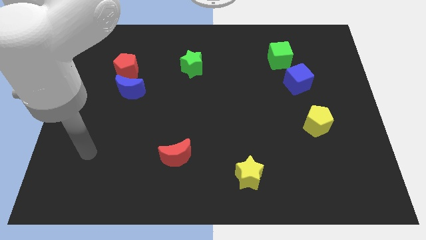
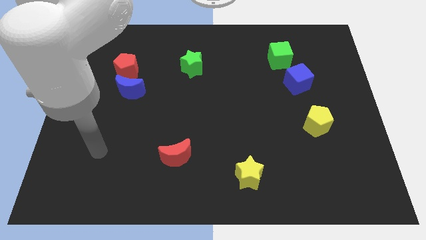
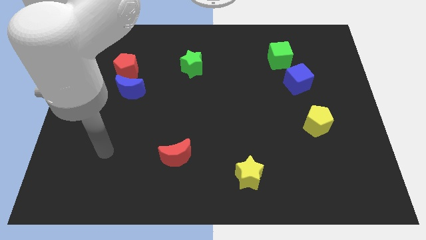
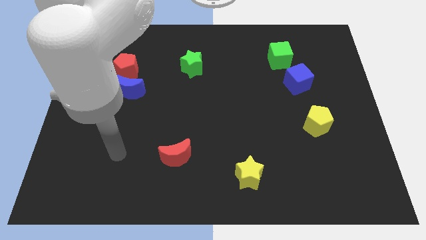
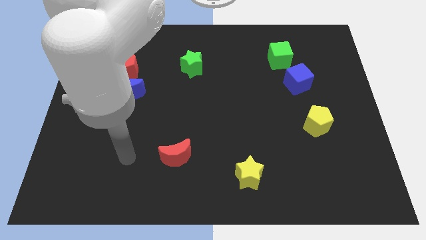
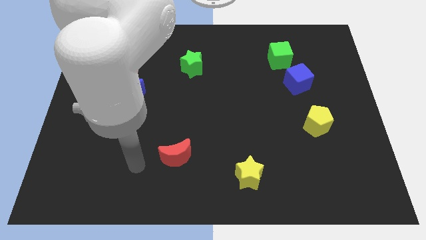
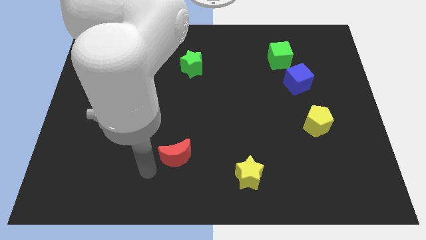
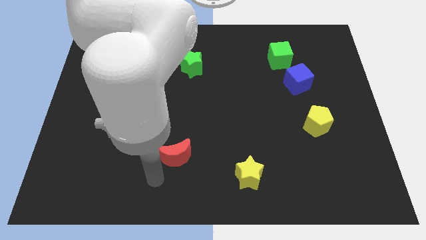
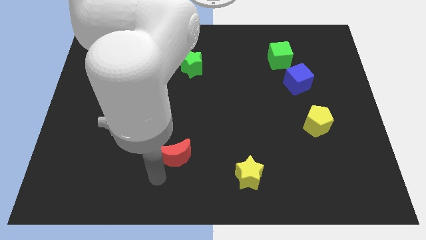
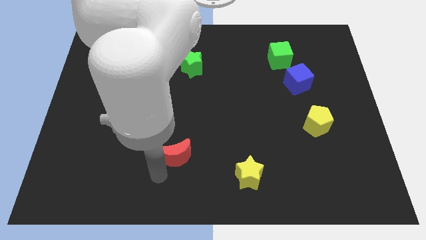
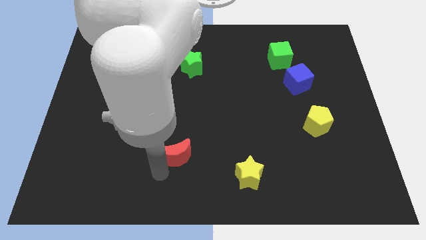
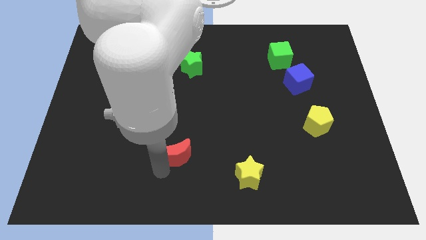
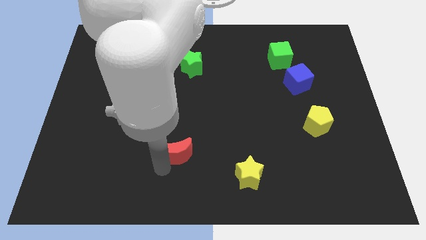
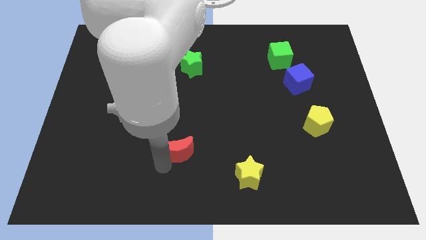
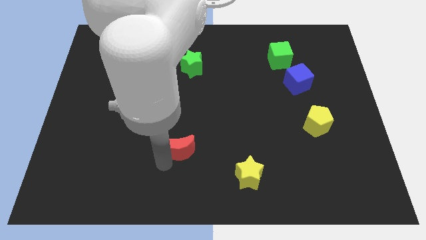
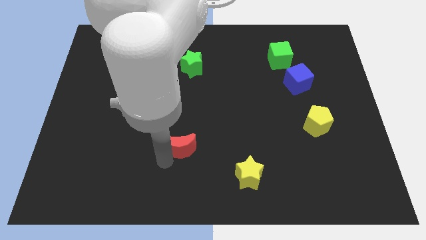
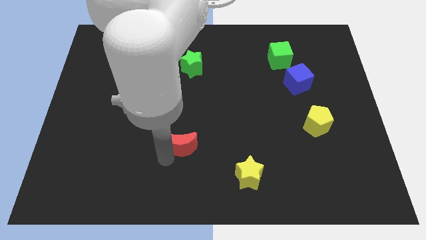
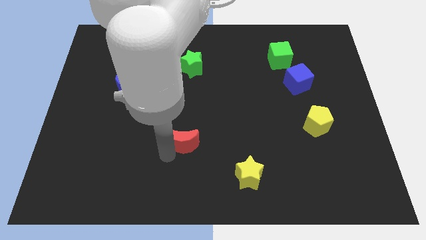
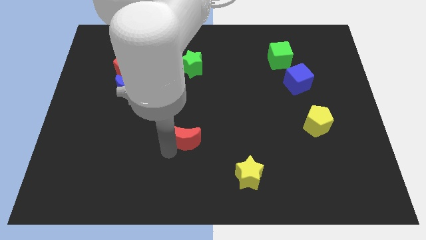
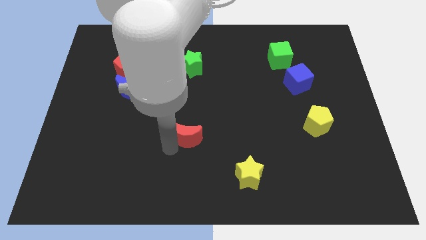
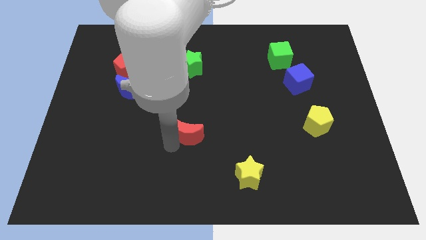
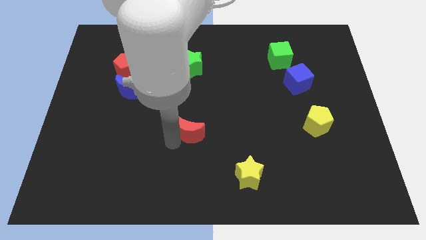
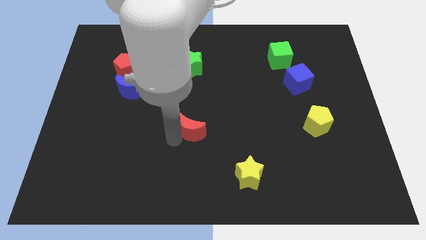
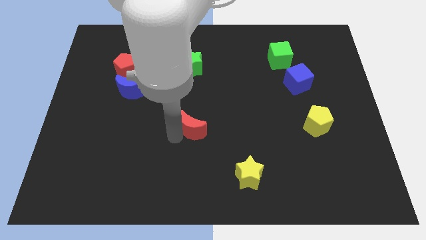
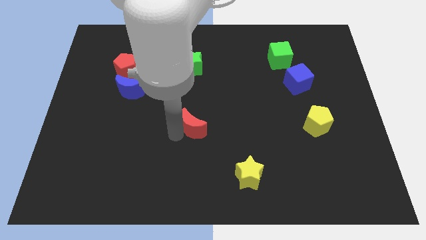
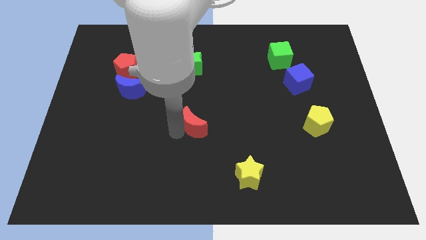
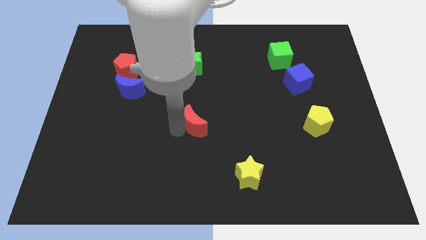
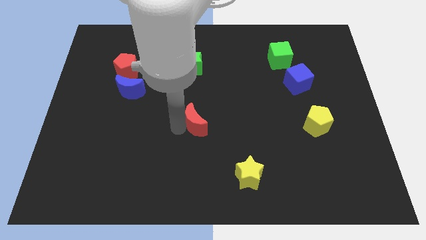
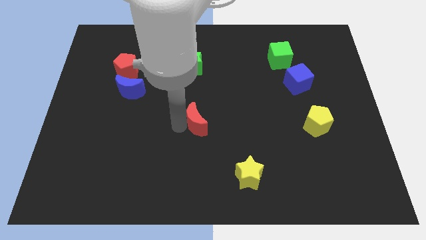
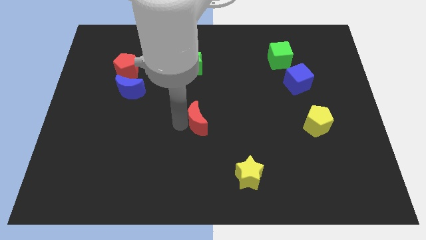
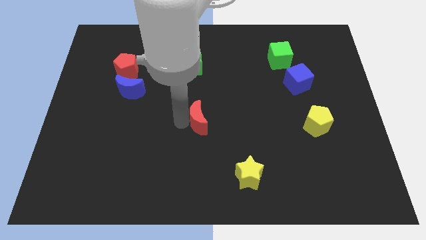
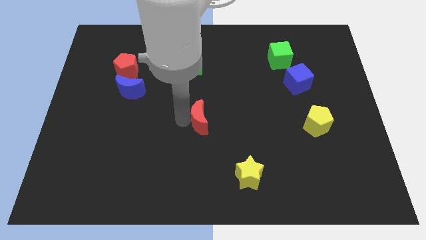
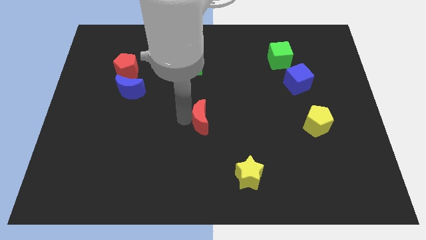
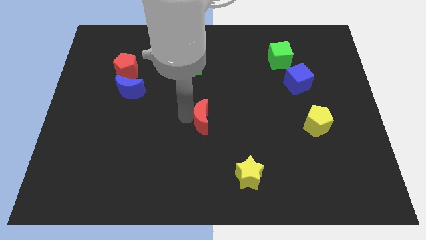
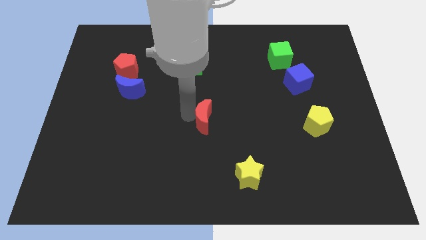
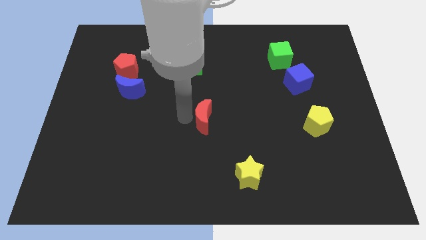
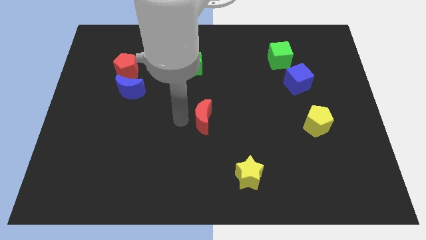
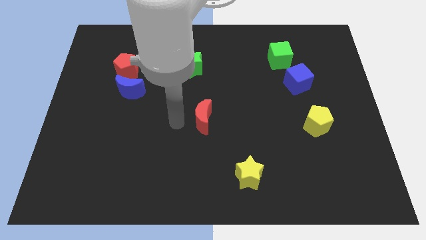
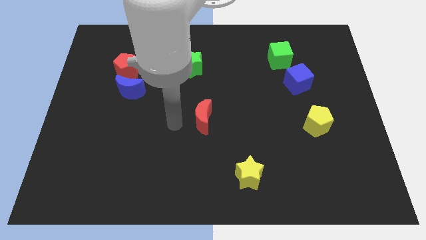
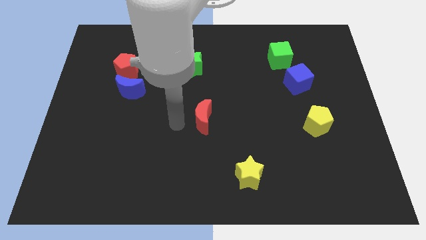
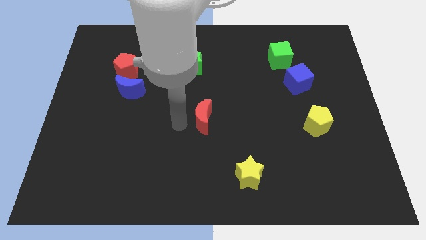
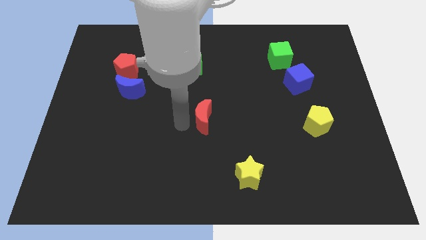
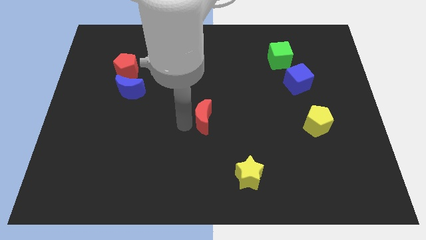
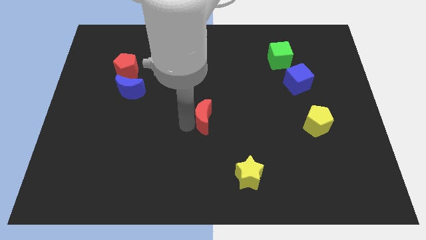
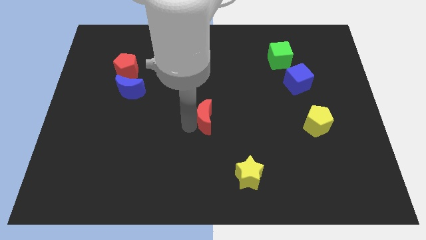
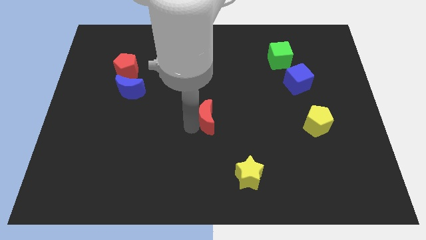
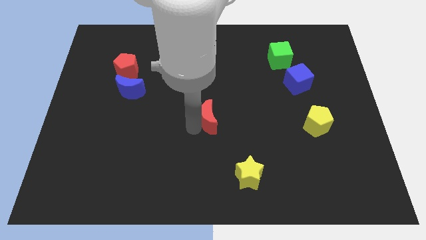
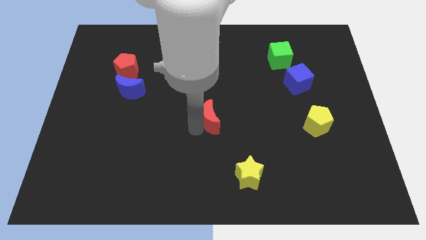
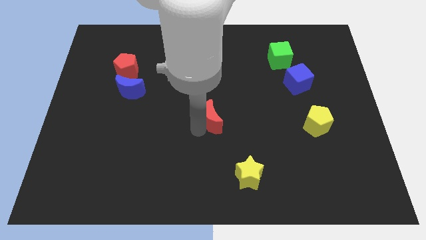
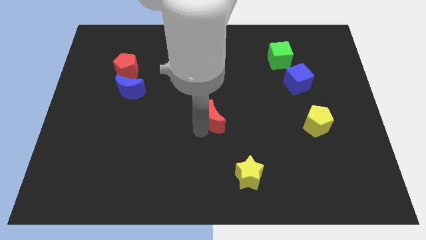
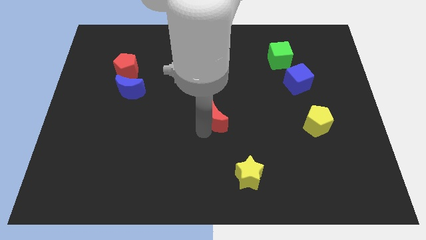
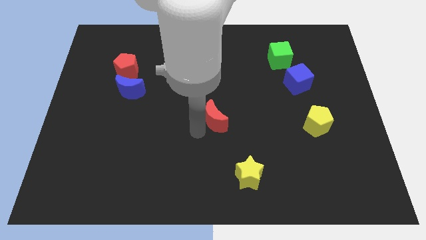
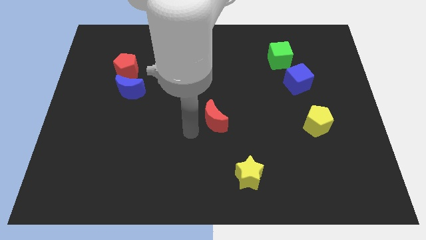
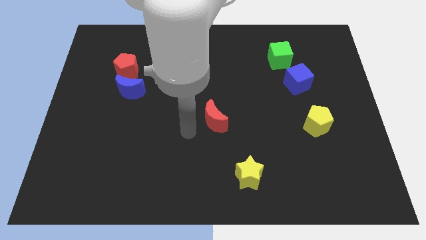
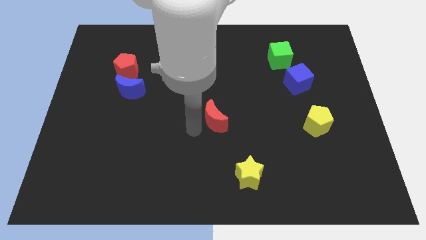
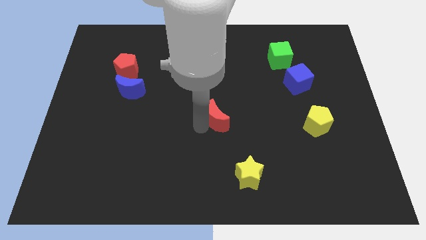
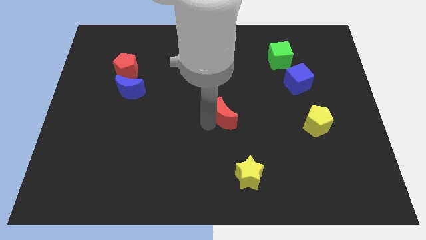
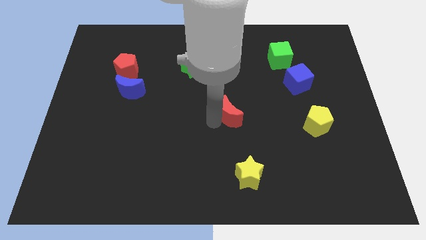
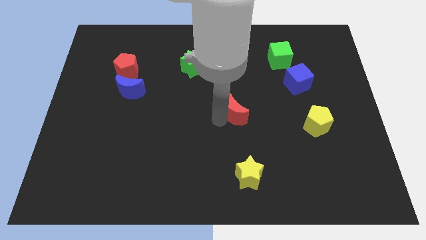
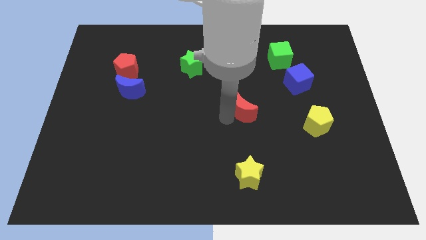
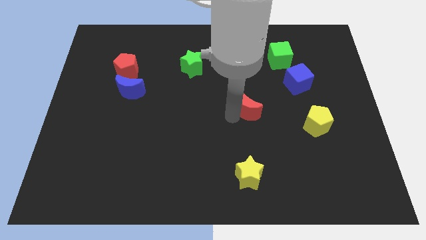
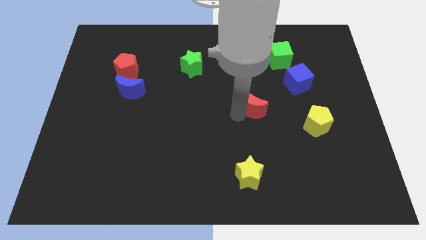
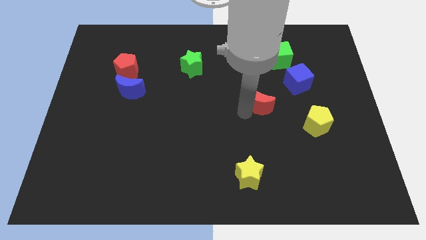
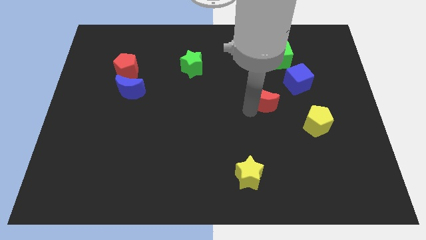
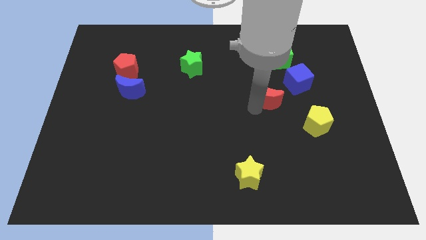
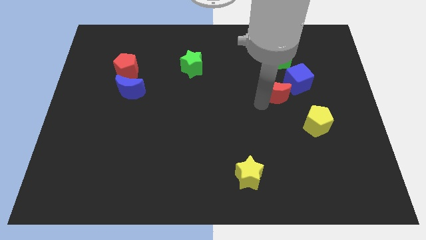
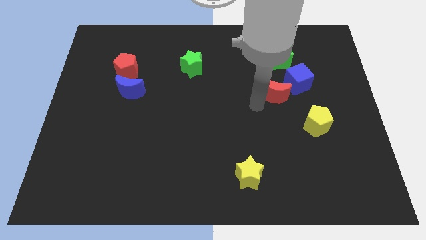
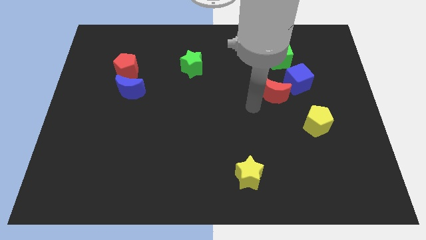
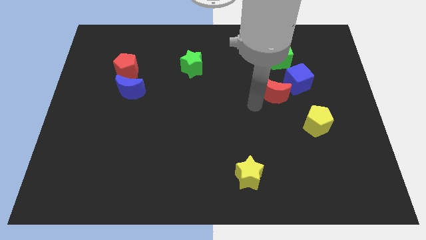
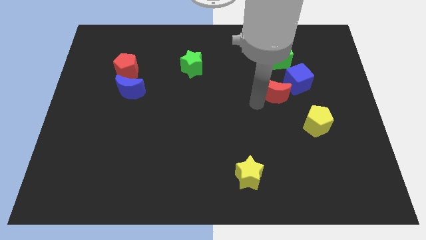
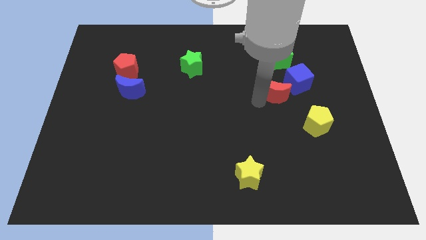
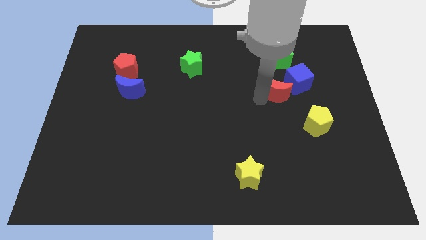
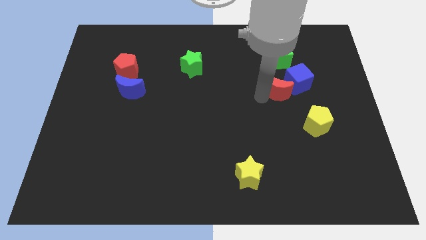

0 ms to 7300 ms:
move the red moon next to the blue cube
